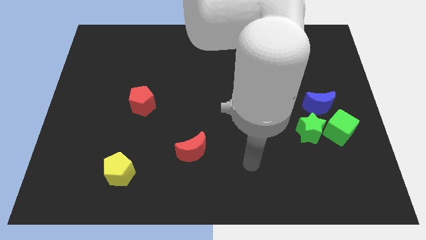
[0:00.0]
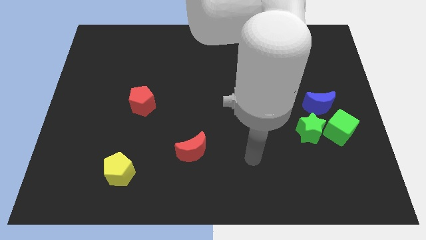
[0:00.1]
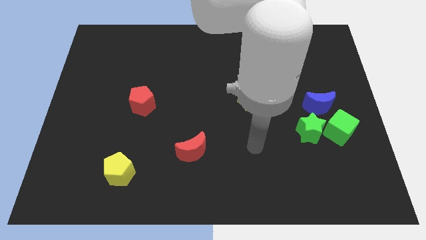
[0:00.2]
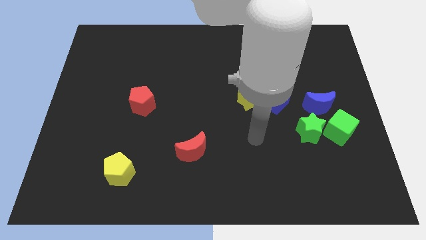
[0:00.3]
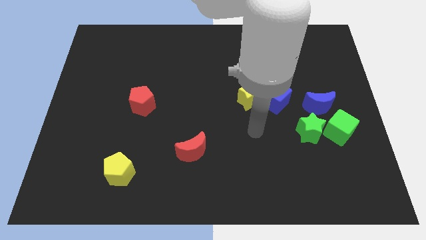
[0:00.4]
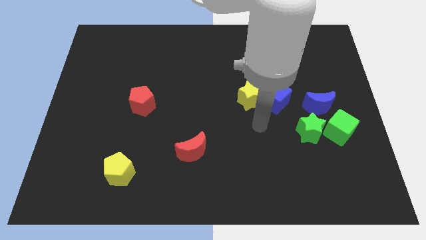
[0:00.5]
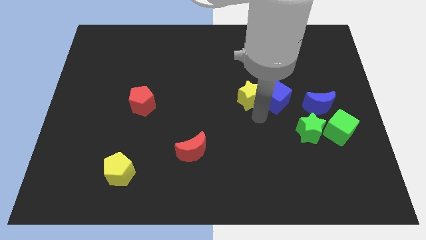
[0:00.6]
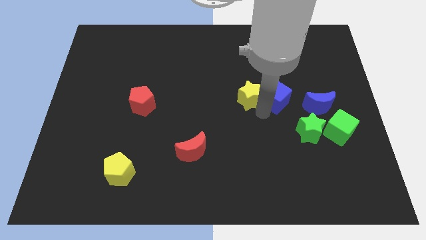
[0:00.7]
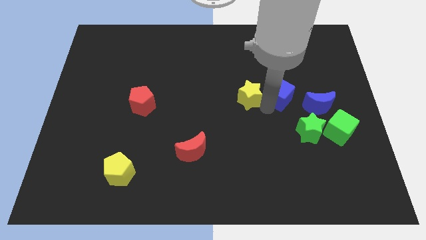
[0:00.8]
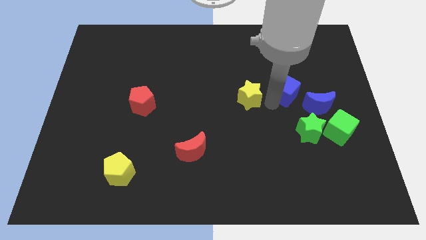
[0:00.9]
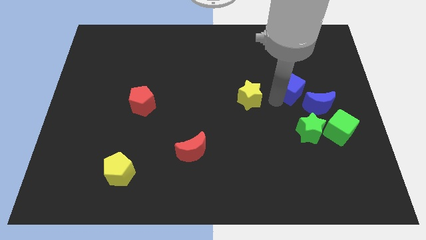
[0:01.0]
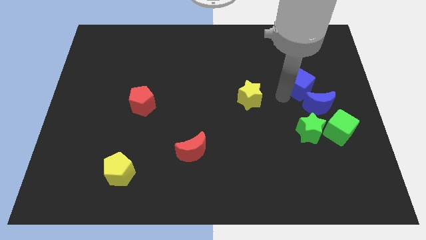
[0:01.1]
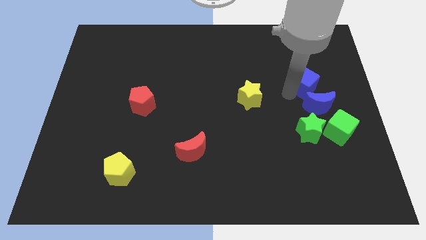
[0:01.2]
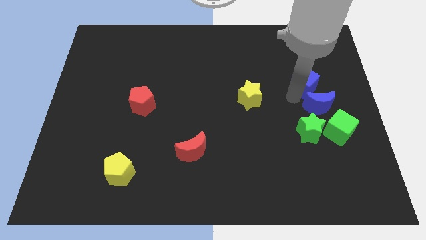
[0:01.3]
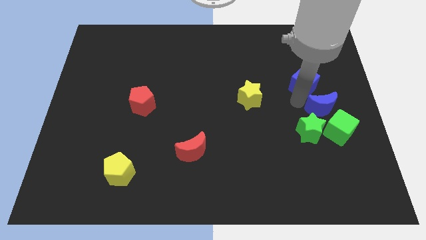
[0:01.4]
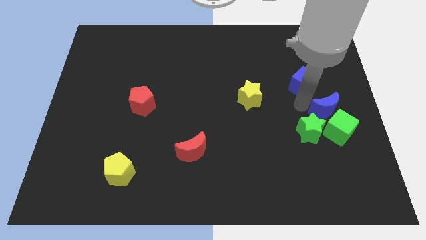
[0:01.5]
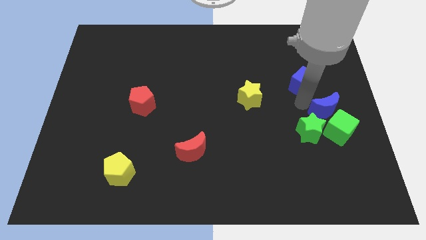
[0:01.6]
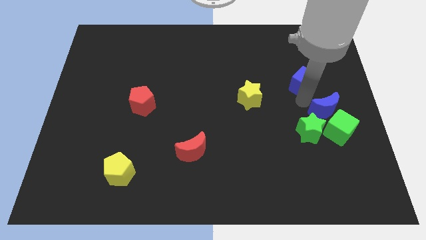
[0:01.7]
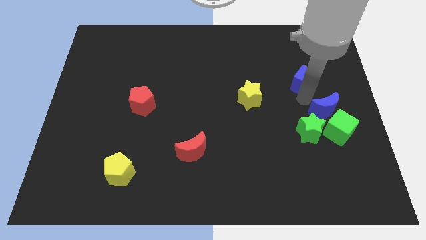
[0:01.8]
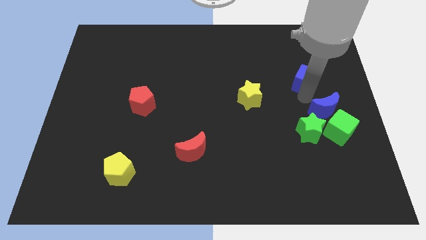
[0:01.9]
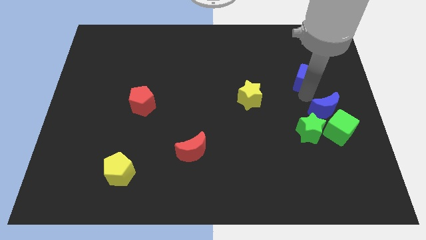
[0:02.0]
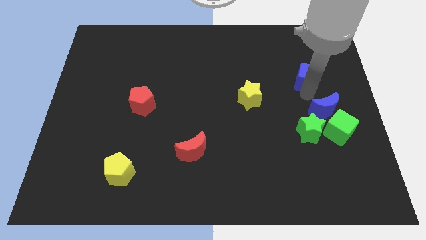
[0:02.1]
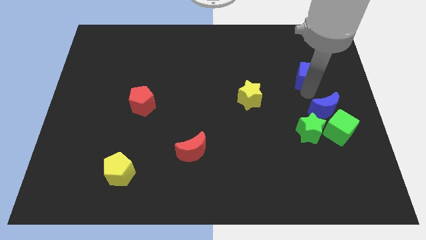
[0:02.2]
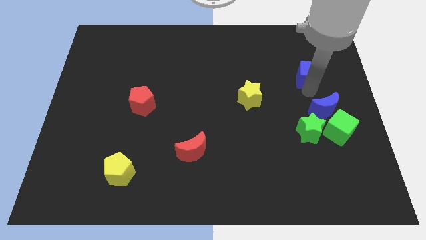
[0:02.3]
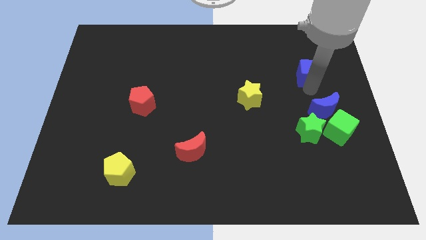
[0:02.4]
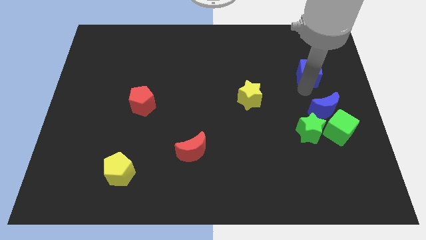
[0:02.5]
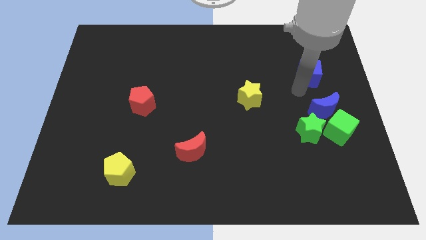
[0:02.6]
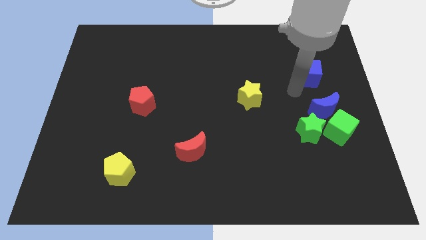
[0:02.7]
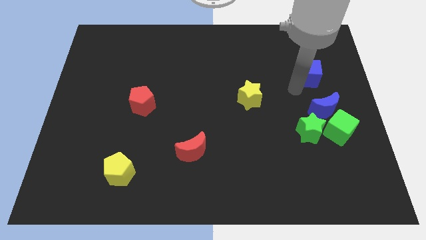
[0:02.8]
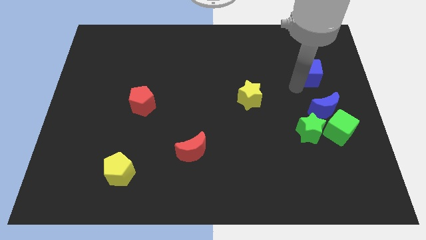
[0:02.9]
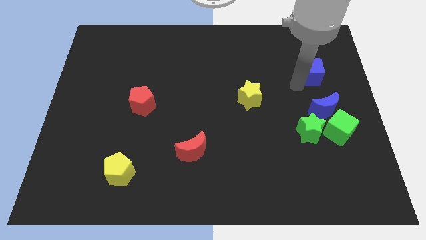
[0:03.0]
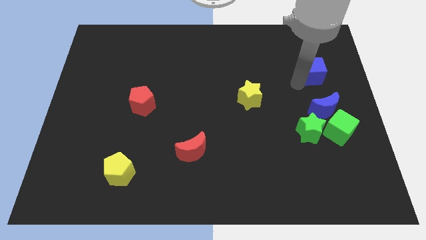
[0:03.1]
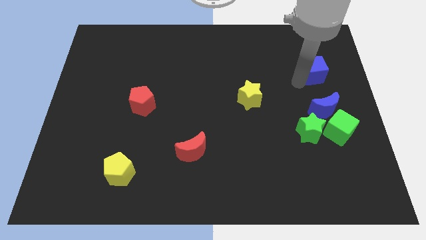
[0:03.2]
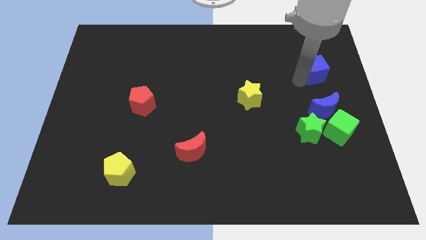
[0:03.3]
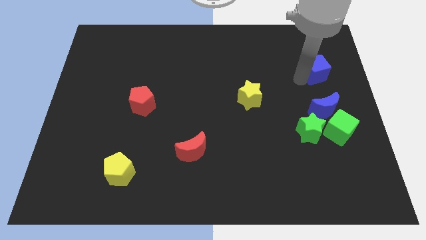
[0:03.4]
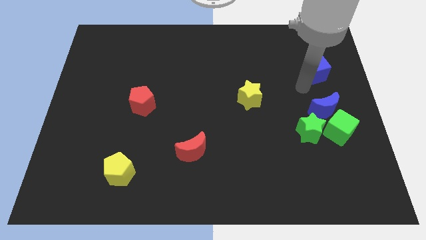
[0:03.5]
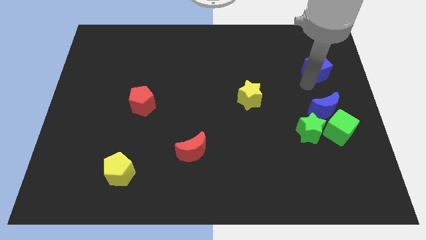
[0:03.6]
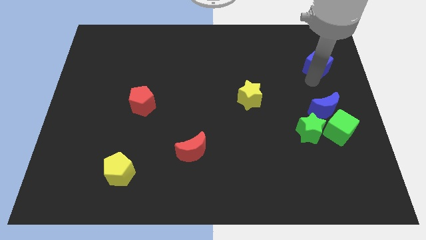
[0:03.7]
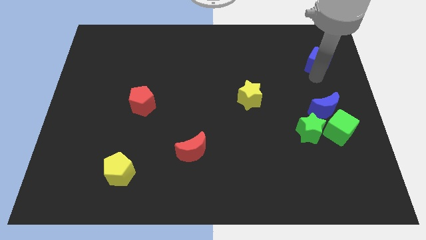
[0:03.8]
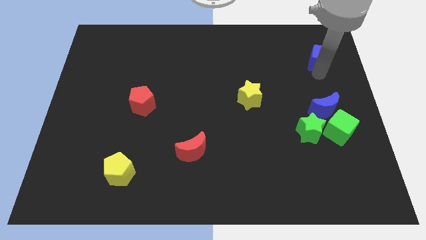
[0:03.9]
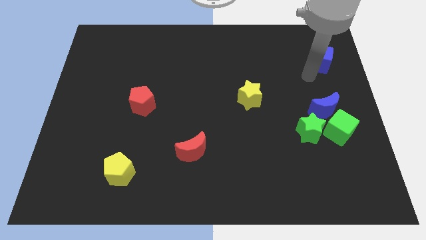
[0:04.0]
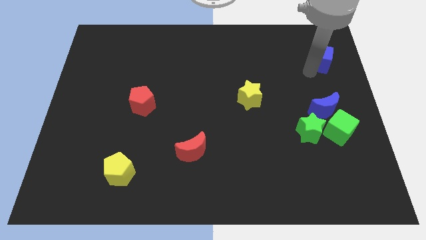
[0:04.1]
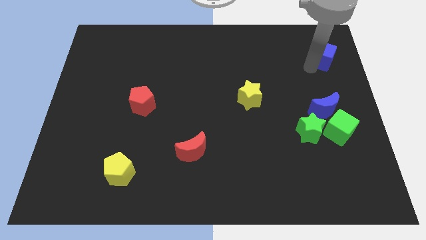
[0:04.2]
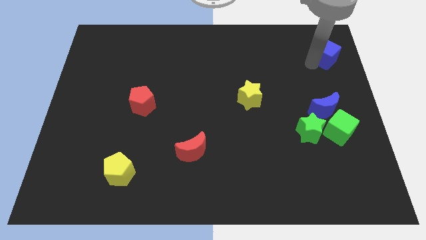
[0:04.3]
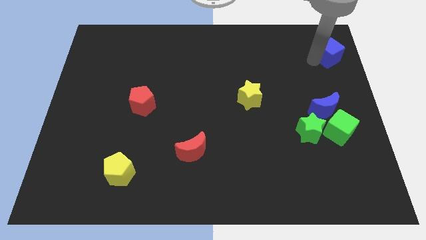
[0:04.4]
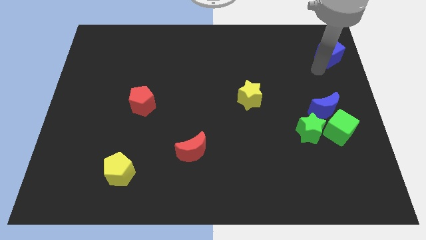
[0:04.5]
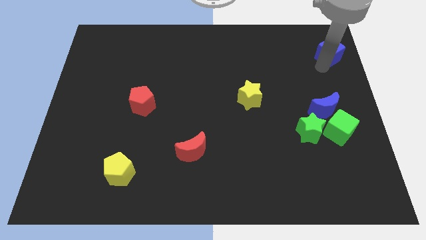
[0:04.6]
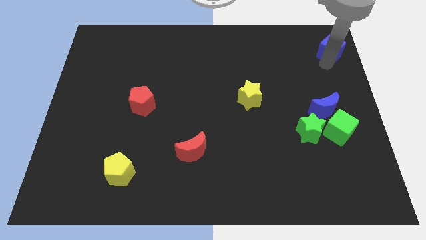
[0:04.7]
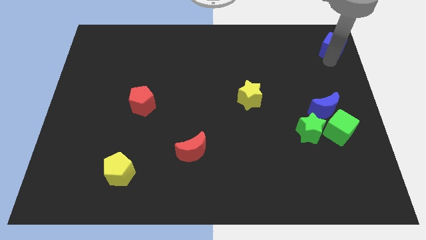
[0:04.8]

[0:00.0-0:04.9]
put the blue cube to the upper right corner

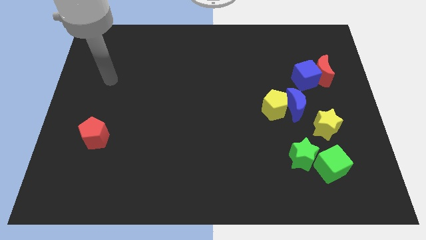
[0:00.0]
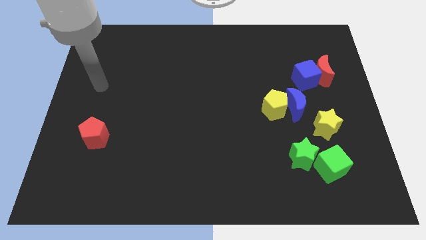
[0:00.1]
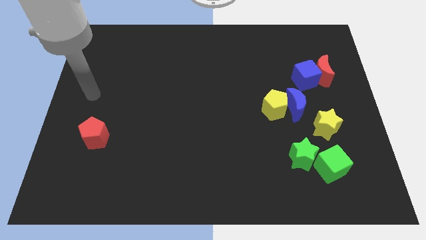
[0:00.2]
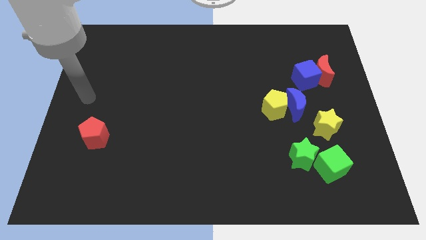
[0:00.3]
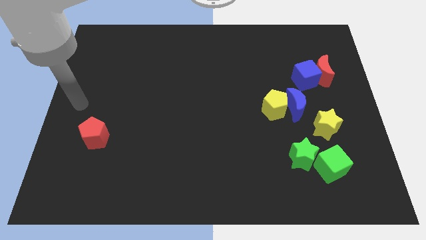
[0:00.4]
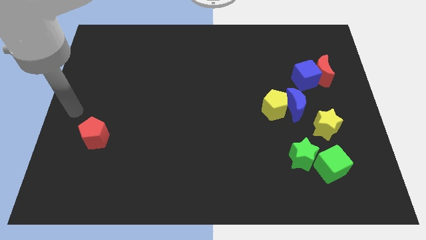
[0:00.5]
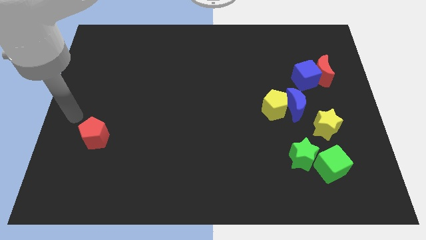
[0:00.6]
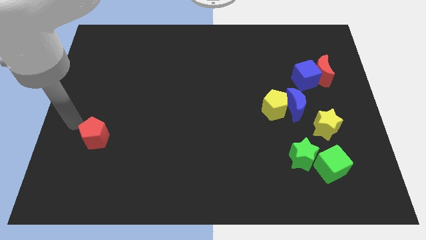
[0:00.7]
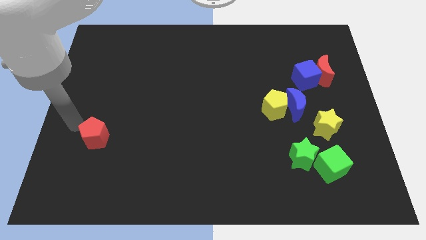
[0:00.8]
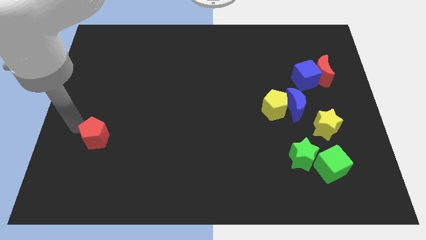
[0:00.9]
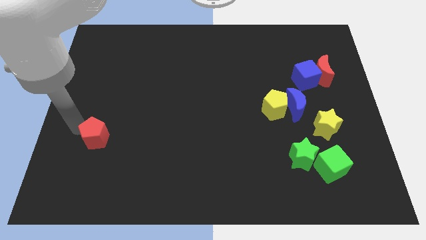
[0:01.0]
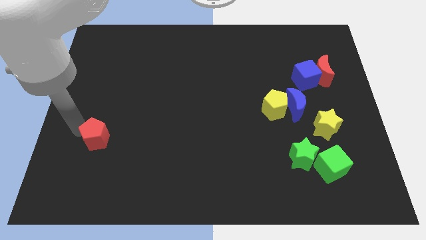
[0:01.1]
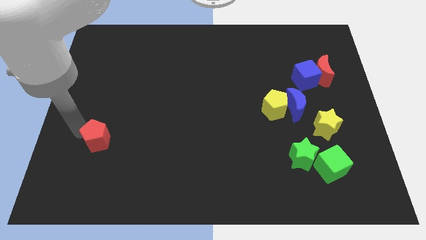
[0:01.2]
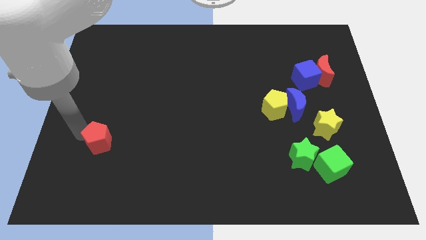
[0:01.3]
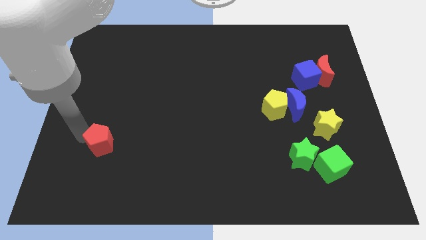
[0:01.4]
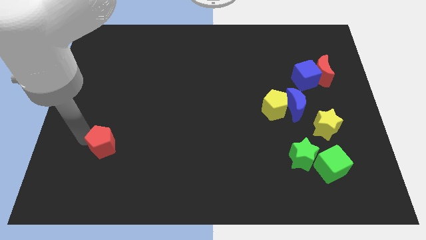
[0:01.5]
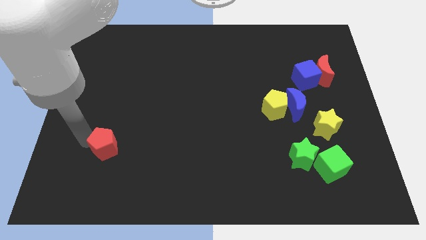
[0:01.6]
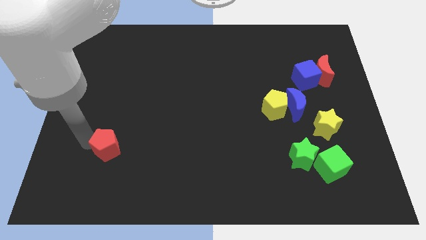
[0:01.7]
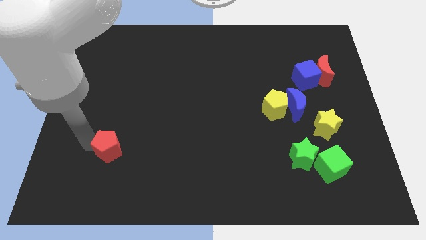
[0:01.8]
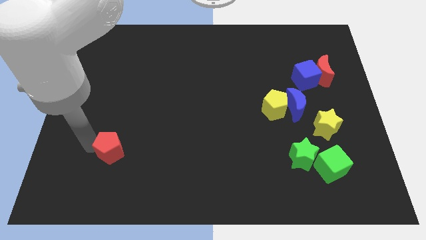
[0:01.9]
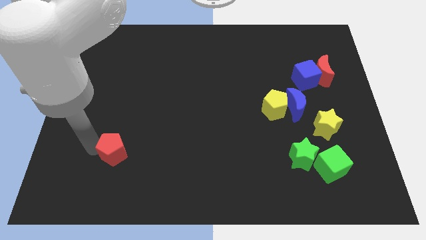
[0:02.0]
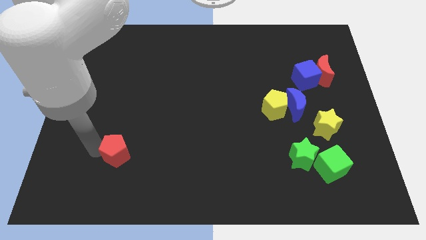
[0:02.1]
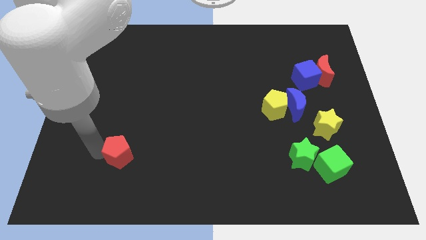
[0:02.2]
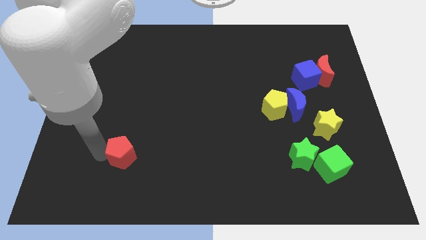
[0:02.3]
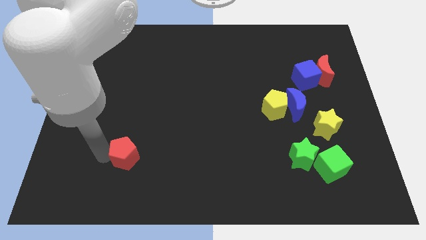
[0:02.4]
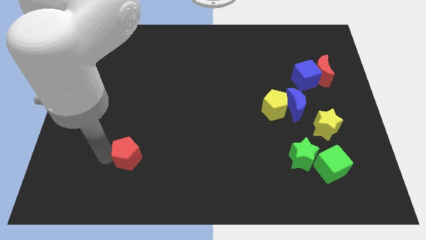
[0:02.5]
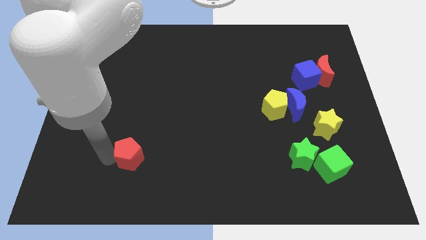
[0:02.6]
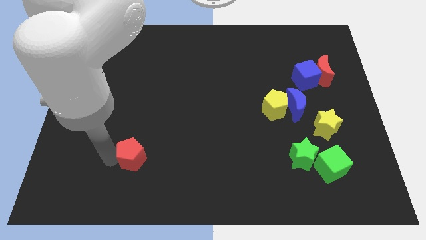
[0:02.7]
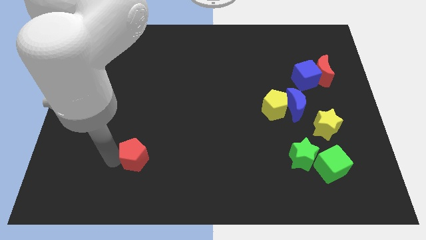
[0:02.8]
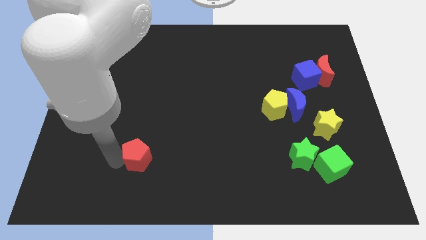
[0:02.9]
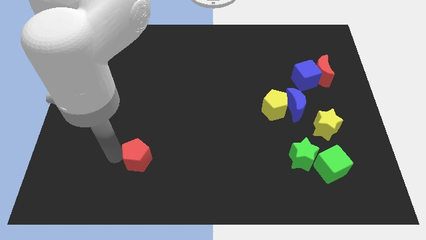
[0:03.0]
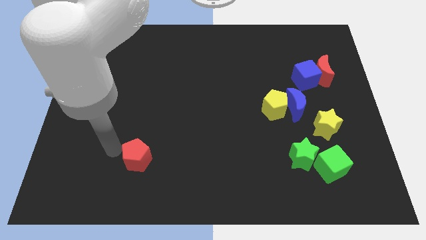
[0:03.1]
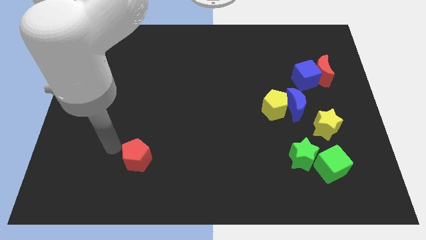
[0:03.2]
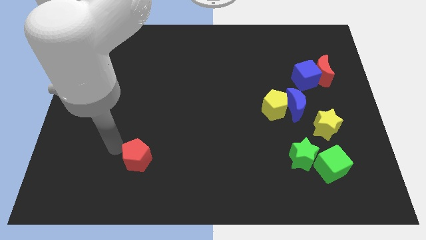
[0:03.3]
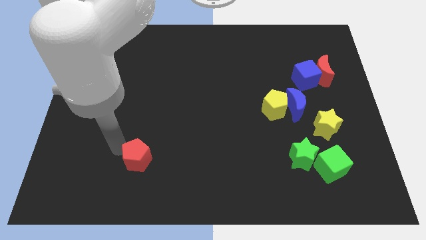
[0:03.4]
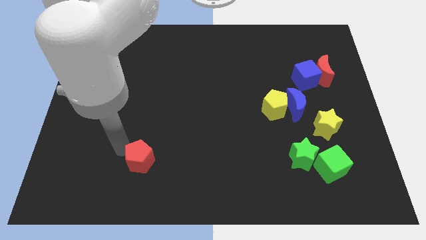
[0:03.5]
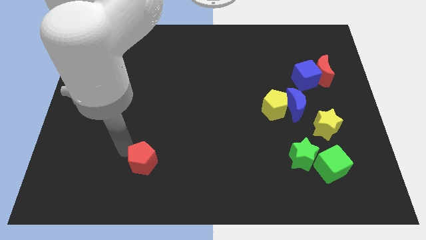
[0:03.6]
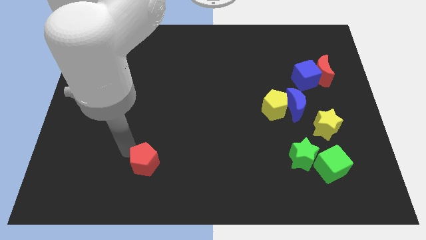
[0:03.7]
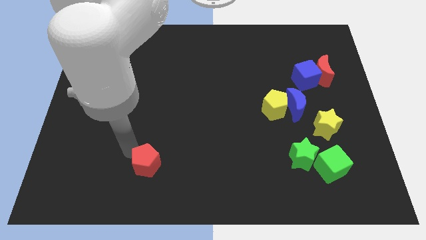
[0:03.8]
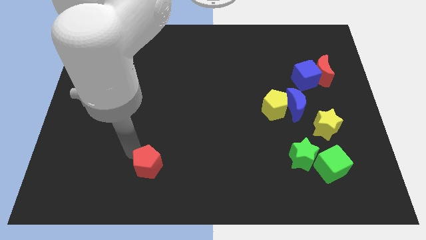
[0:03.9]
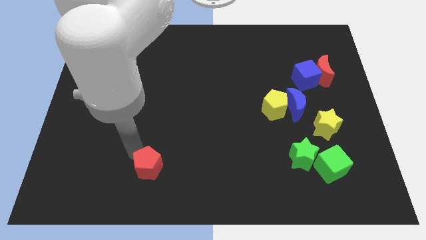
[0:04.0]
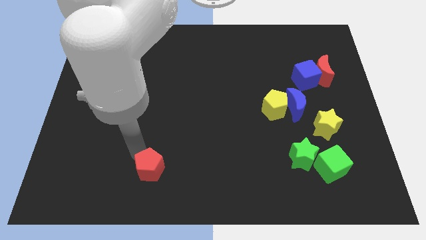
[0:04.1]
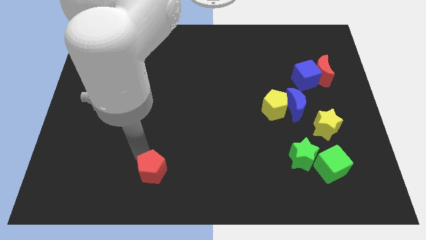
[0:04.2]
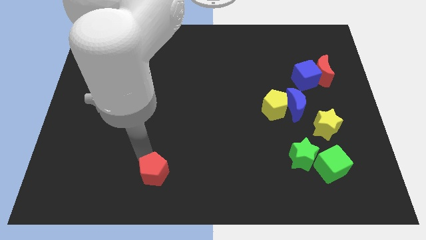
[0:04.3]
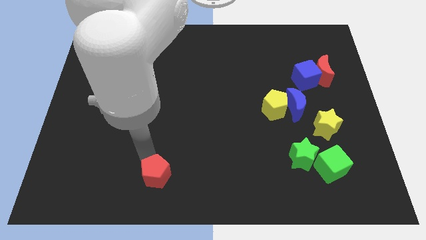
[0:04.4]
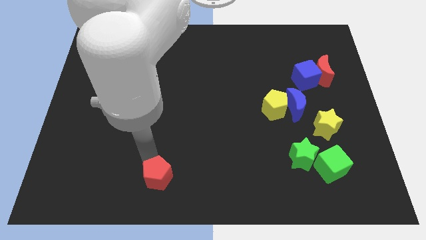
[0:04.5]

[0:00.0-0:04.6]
put the red pentagon to the bottom side
